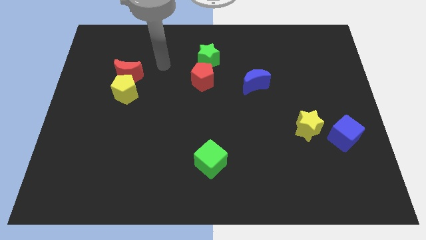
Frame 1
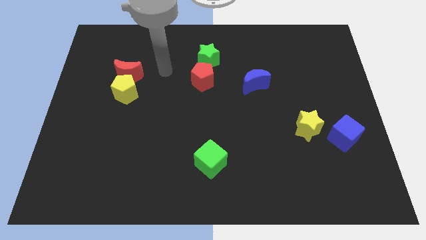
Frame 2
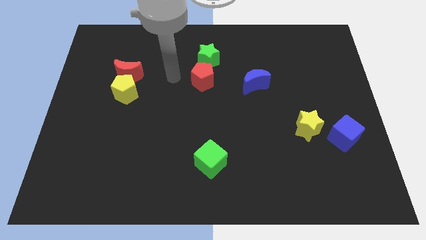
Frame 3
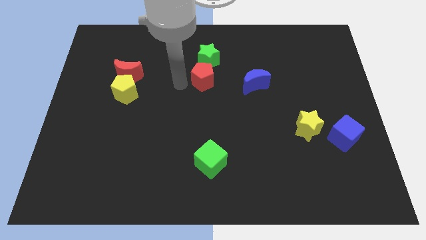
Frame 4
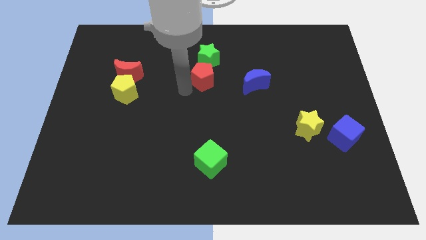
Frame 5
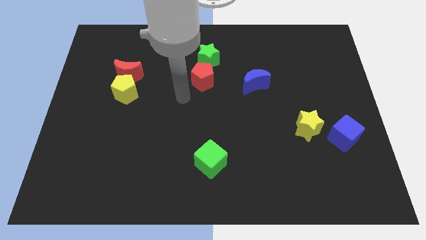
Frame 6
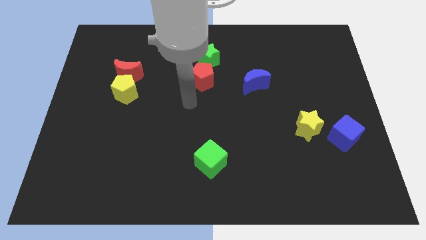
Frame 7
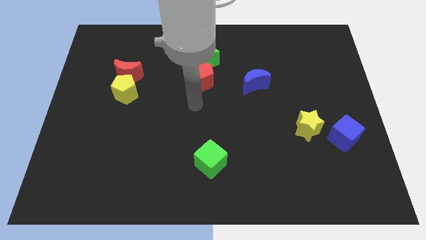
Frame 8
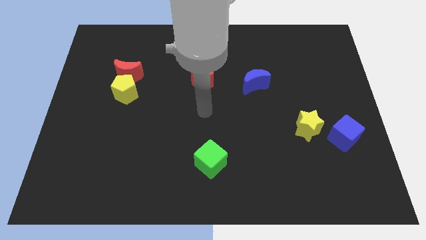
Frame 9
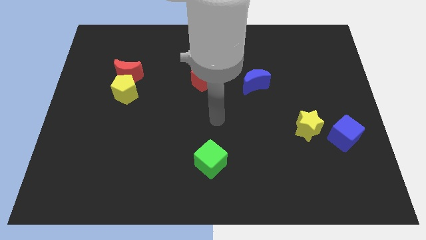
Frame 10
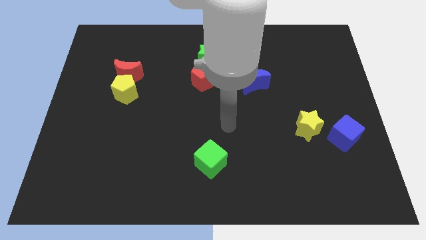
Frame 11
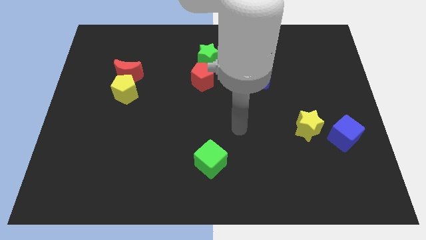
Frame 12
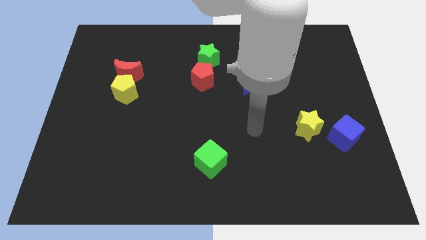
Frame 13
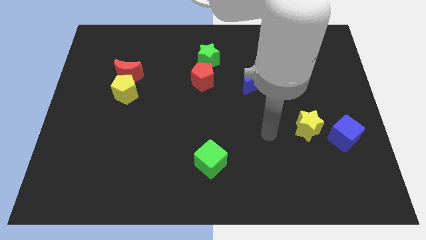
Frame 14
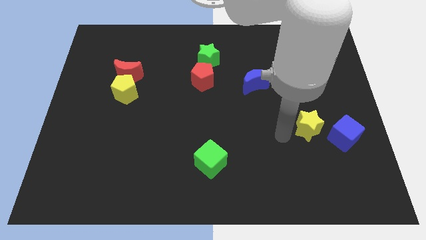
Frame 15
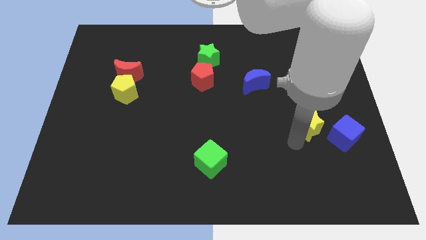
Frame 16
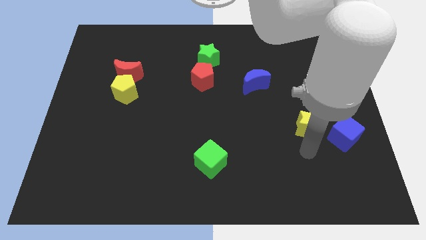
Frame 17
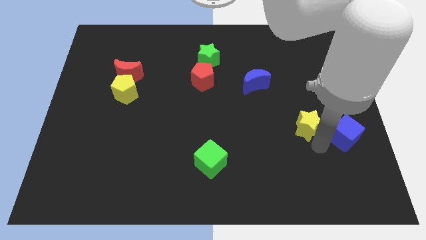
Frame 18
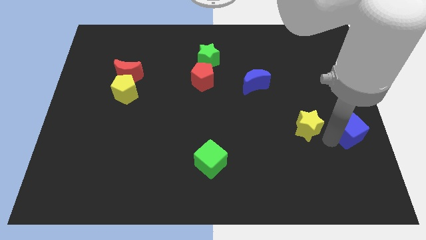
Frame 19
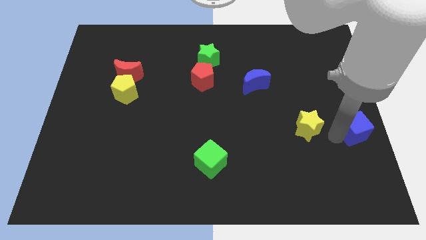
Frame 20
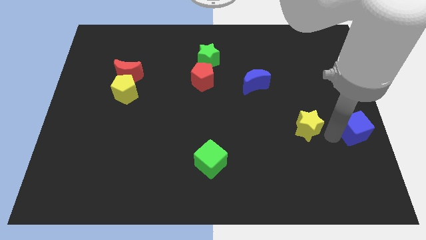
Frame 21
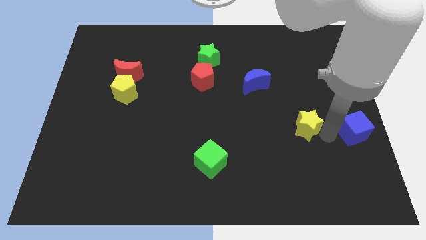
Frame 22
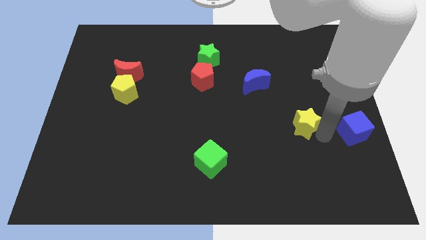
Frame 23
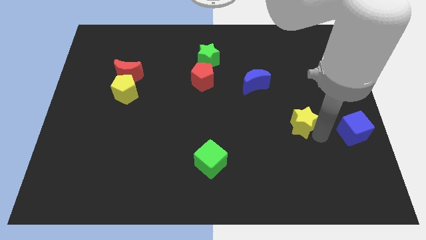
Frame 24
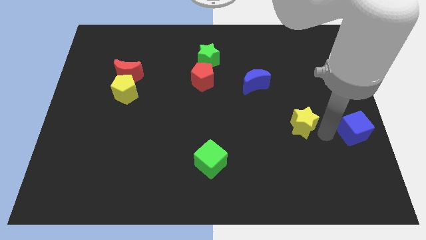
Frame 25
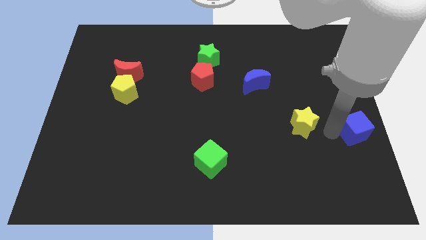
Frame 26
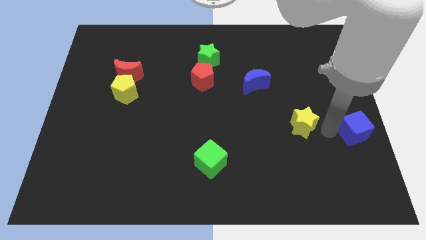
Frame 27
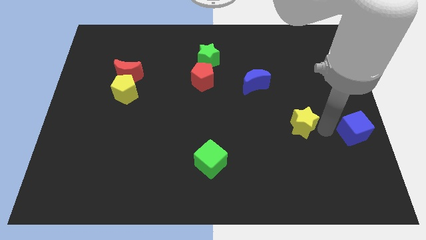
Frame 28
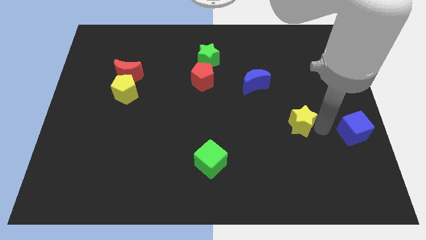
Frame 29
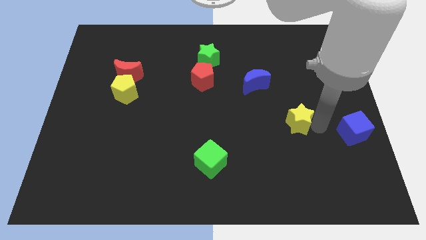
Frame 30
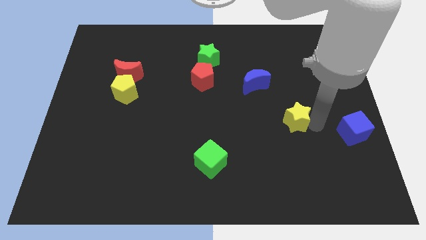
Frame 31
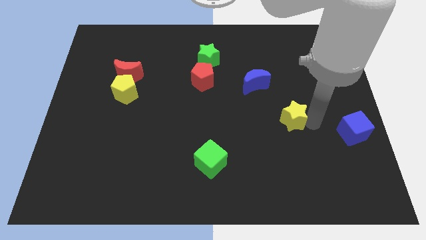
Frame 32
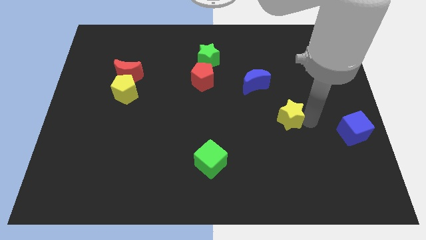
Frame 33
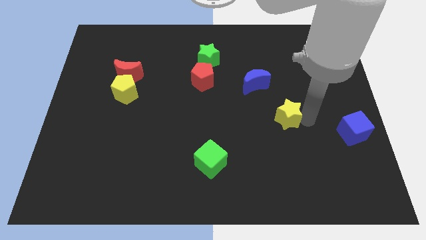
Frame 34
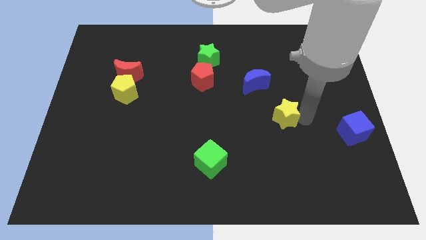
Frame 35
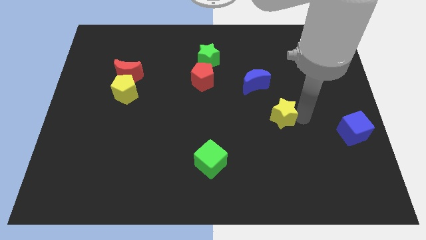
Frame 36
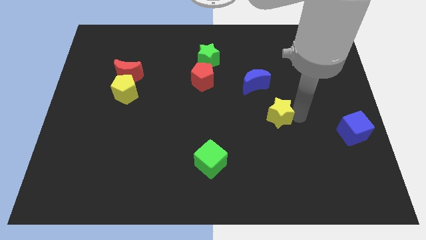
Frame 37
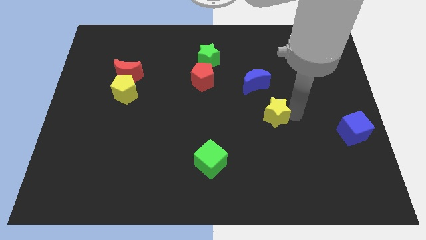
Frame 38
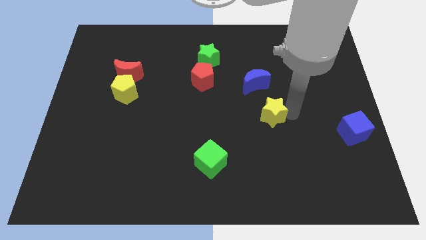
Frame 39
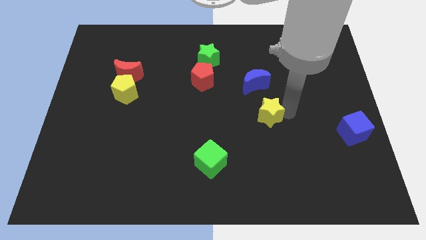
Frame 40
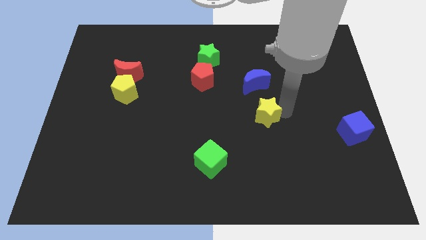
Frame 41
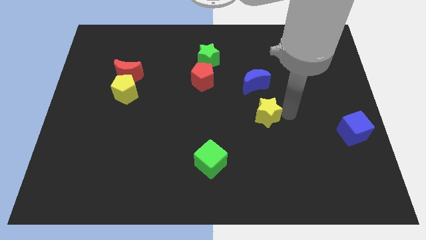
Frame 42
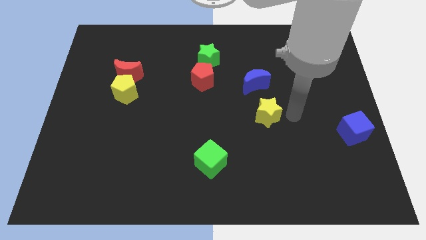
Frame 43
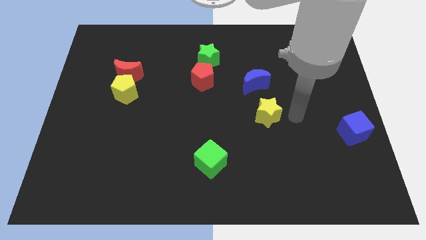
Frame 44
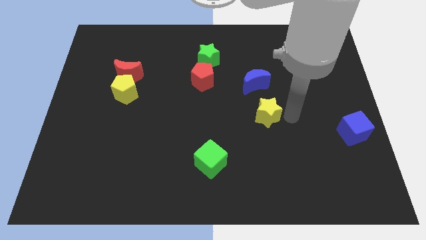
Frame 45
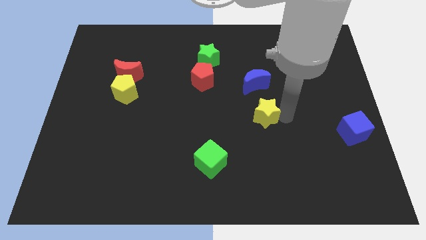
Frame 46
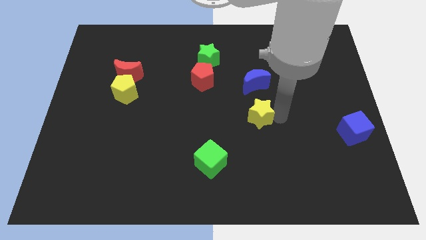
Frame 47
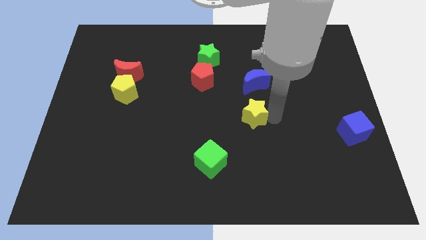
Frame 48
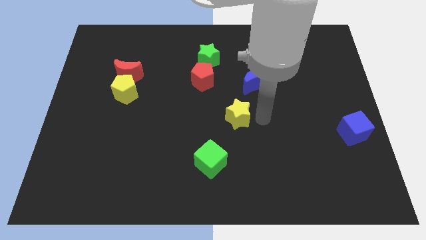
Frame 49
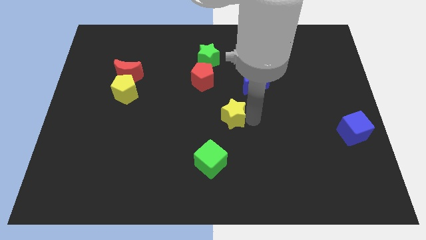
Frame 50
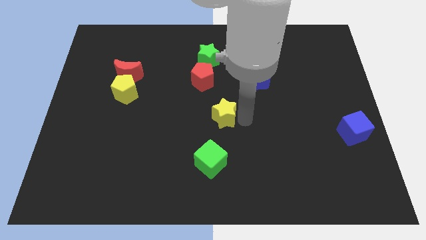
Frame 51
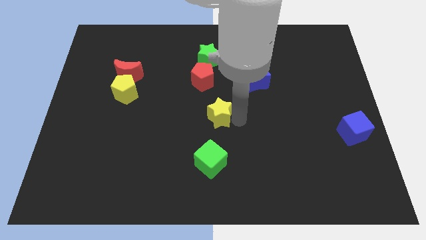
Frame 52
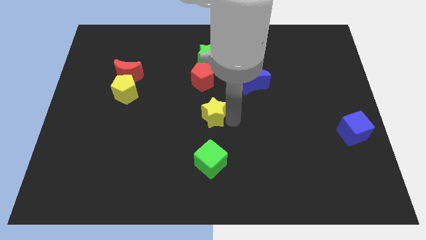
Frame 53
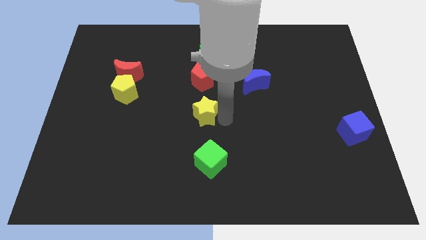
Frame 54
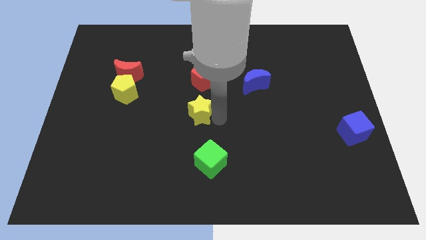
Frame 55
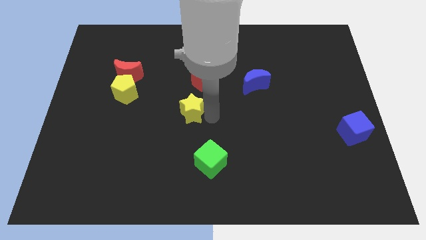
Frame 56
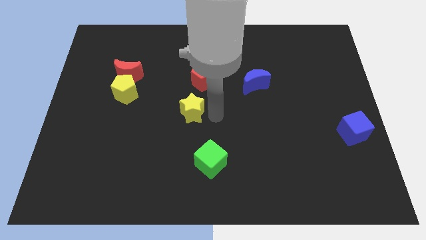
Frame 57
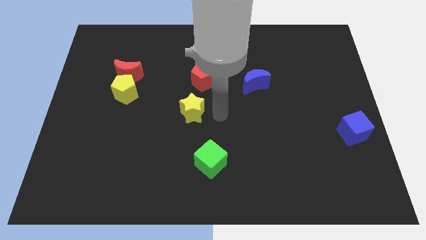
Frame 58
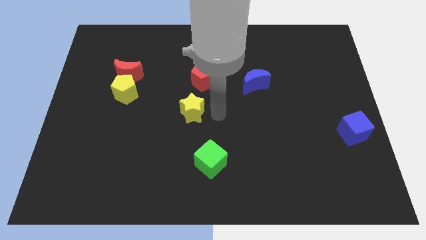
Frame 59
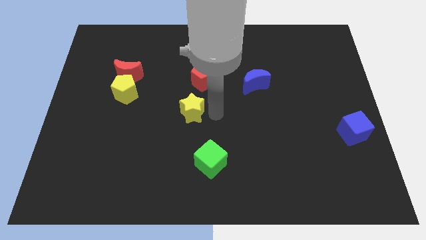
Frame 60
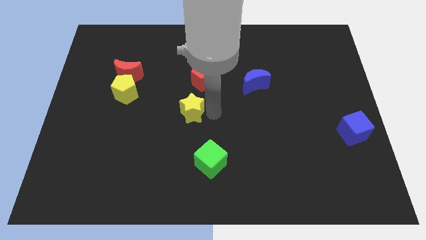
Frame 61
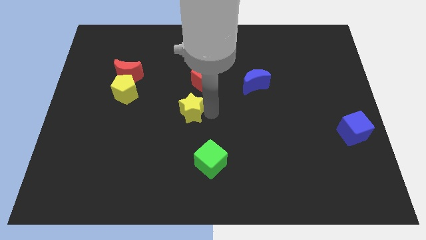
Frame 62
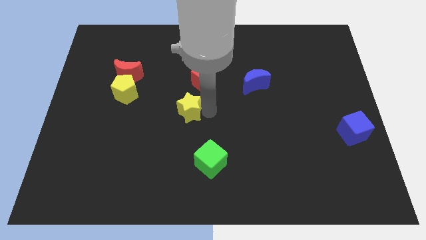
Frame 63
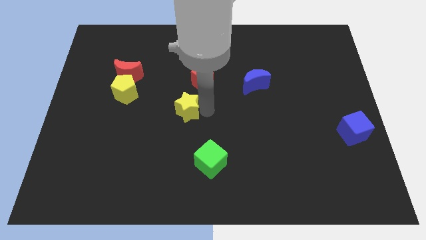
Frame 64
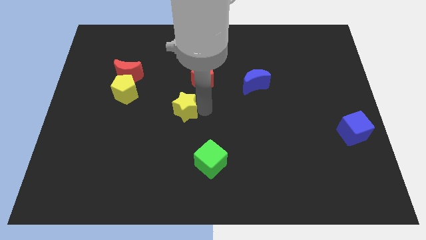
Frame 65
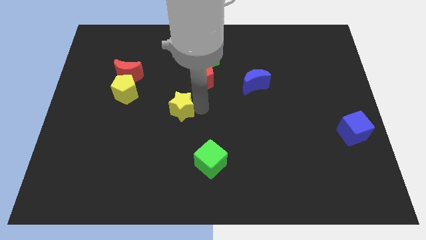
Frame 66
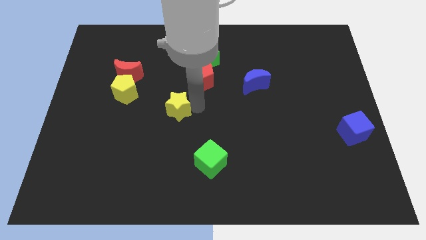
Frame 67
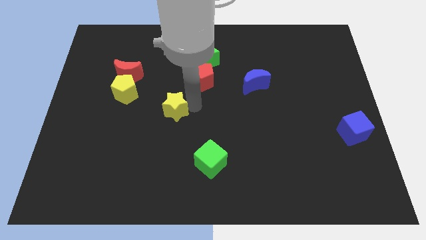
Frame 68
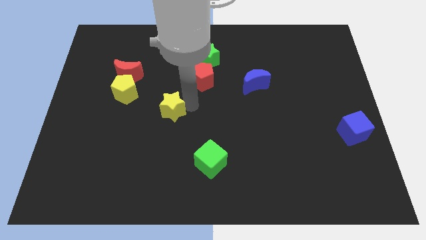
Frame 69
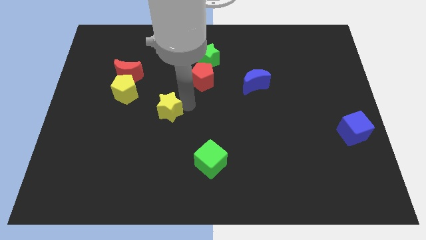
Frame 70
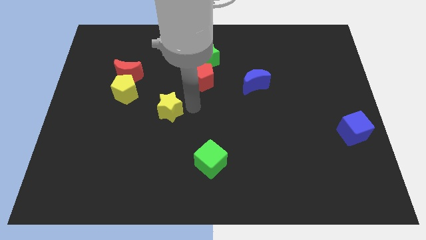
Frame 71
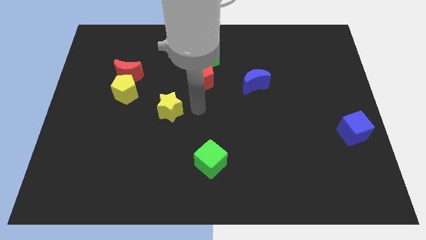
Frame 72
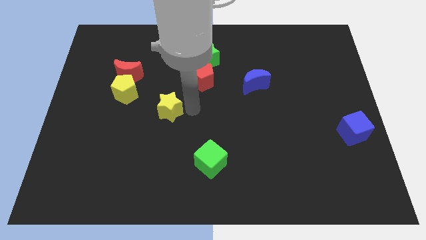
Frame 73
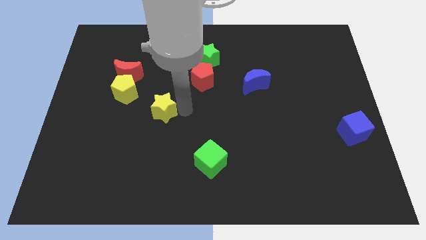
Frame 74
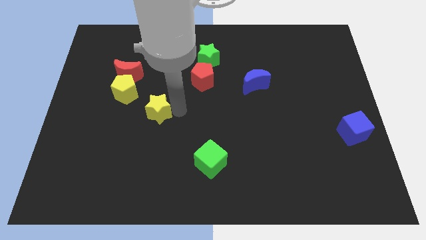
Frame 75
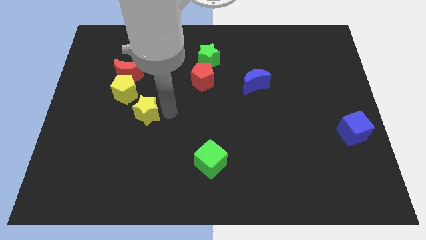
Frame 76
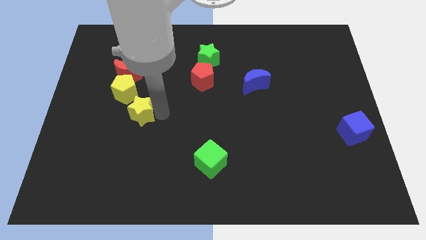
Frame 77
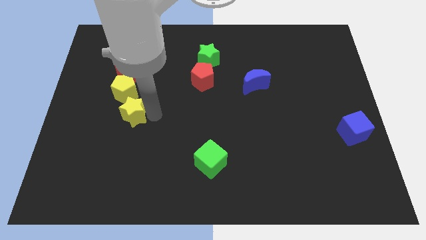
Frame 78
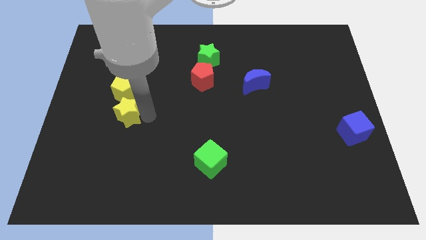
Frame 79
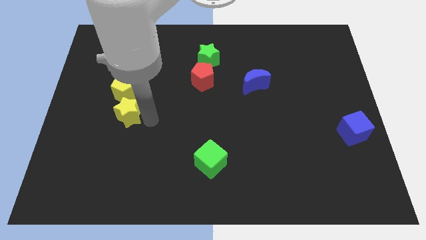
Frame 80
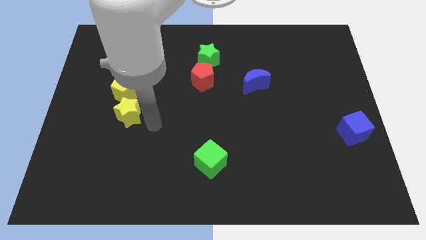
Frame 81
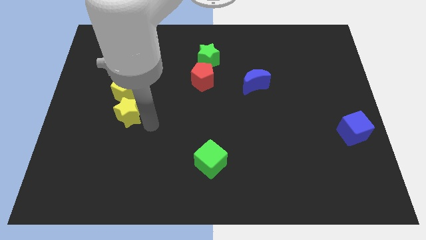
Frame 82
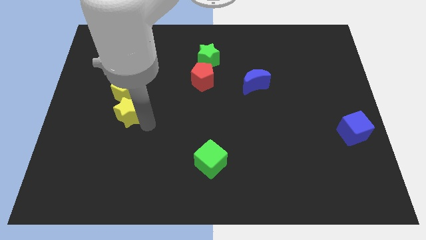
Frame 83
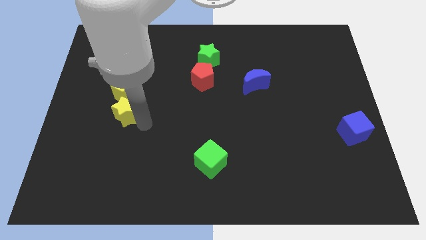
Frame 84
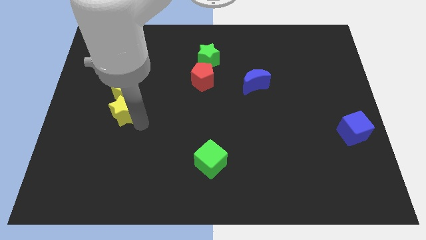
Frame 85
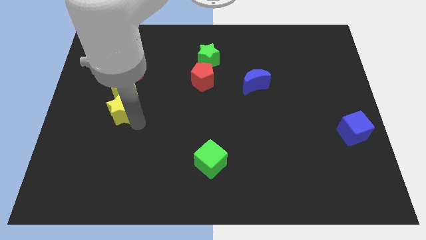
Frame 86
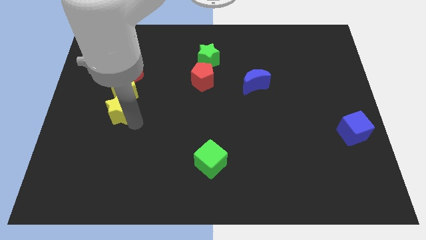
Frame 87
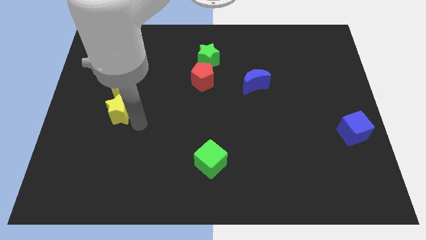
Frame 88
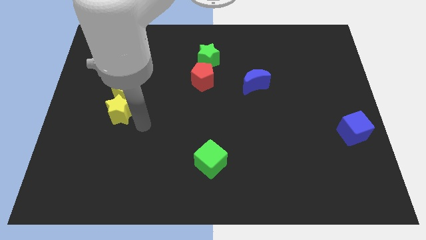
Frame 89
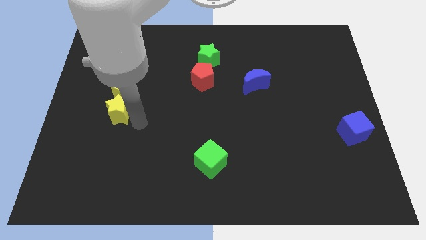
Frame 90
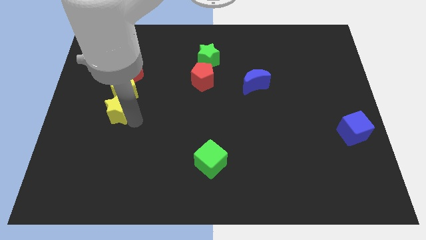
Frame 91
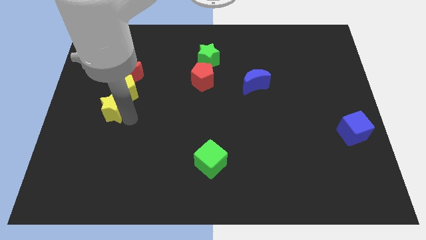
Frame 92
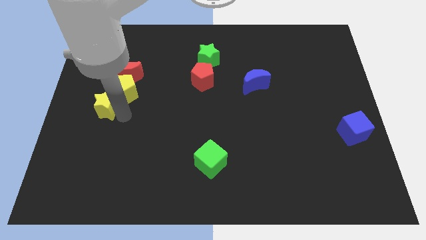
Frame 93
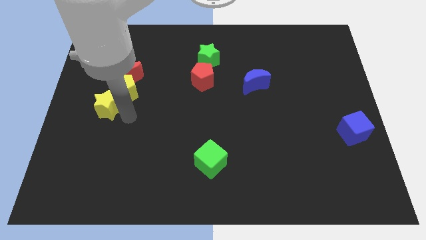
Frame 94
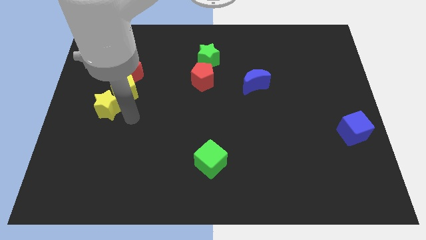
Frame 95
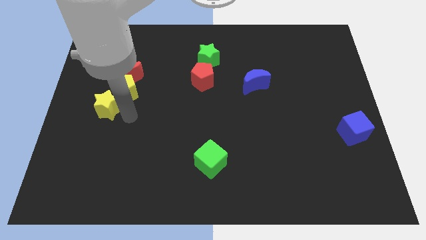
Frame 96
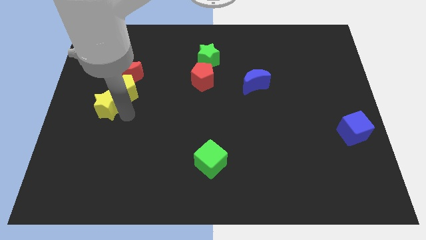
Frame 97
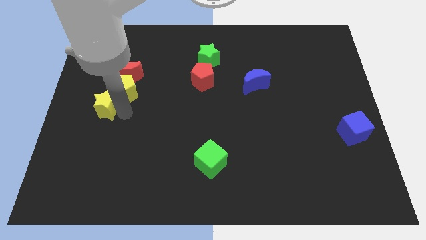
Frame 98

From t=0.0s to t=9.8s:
push the yellow star to the left side of the board
